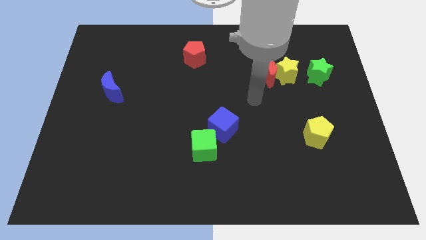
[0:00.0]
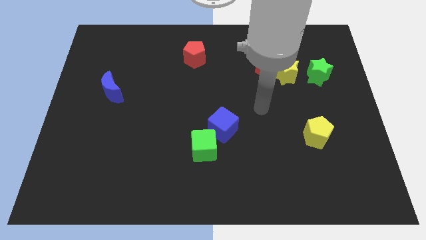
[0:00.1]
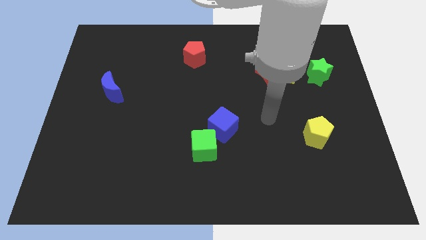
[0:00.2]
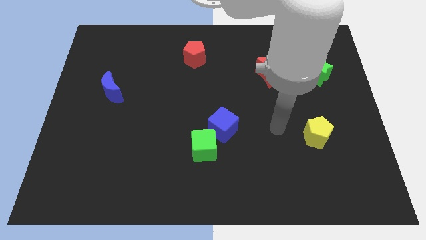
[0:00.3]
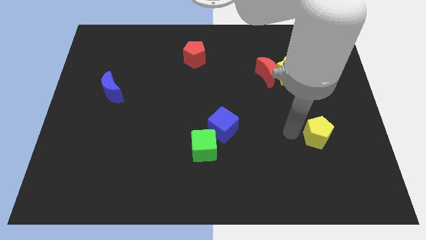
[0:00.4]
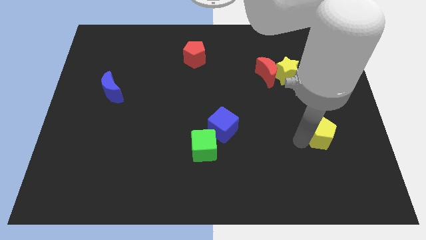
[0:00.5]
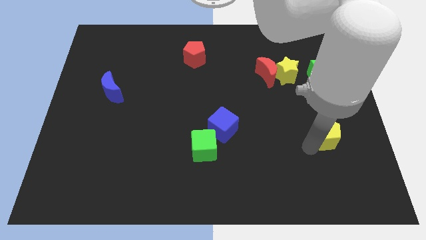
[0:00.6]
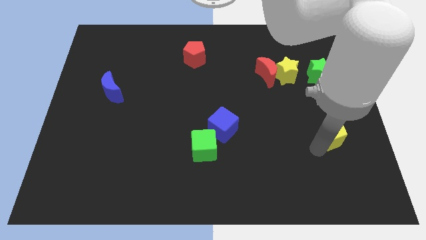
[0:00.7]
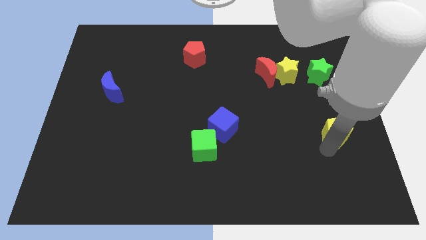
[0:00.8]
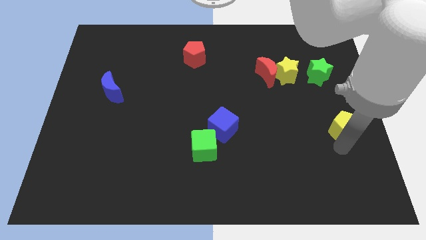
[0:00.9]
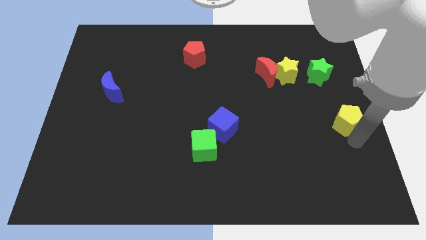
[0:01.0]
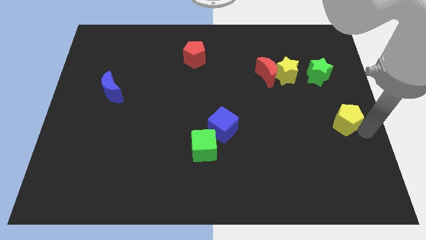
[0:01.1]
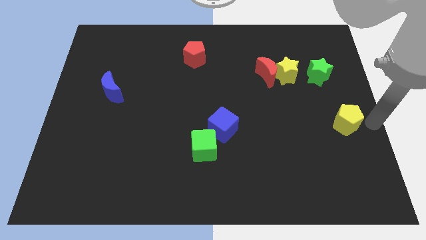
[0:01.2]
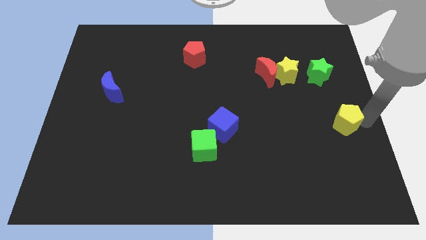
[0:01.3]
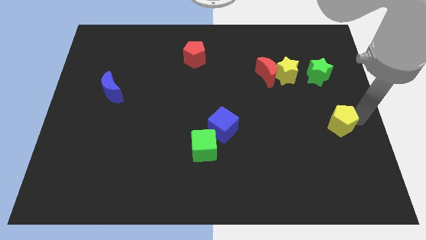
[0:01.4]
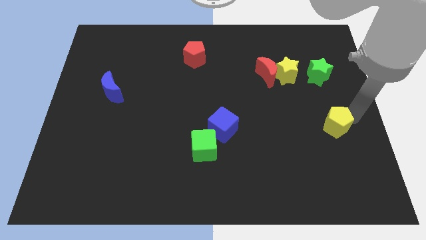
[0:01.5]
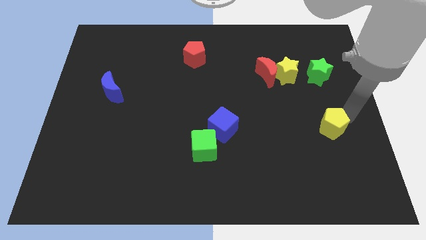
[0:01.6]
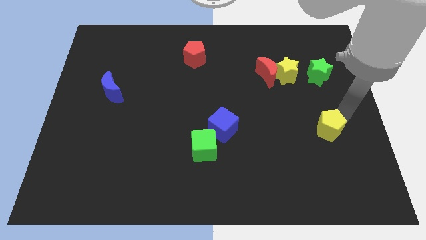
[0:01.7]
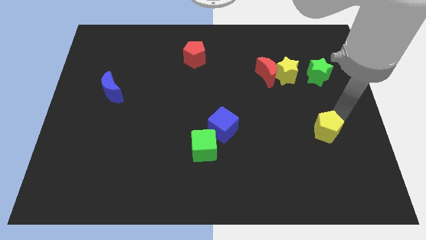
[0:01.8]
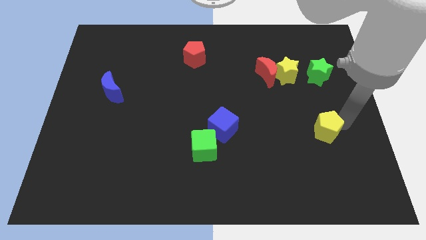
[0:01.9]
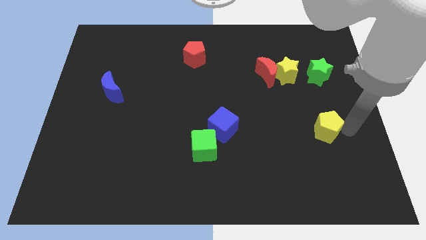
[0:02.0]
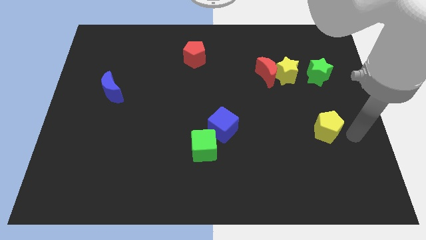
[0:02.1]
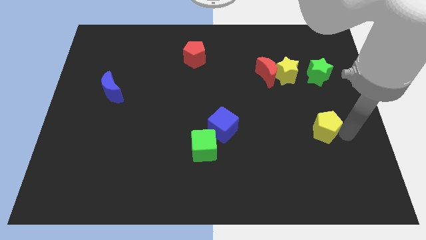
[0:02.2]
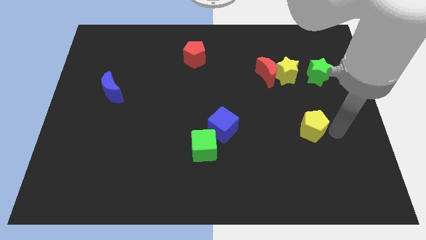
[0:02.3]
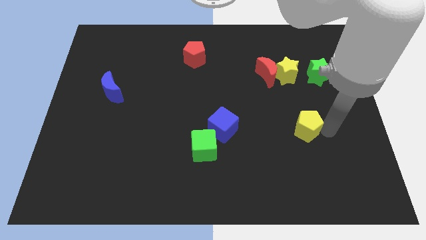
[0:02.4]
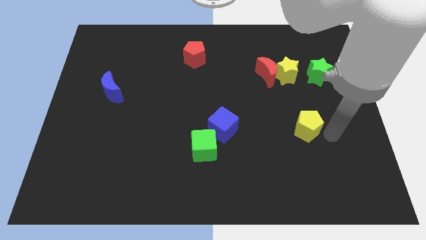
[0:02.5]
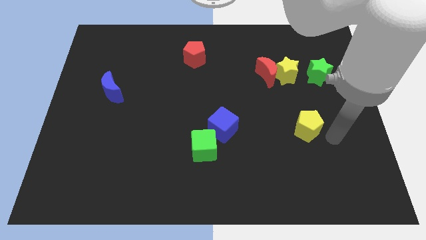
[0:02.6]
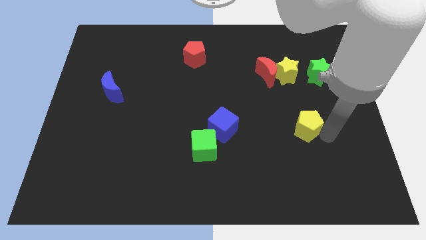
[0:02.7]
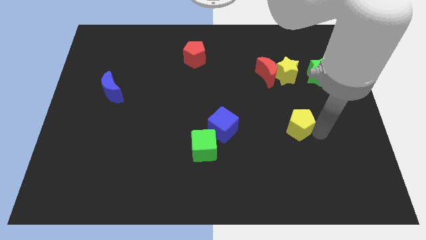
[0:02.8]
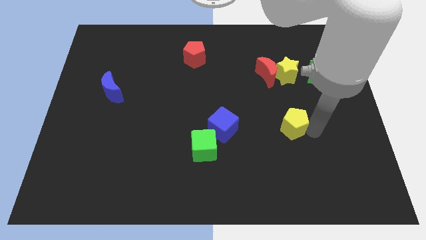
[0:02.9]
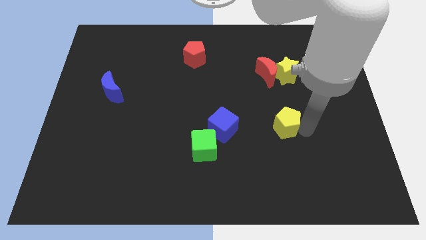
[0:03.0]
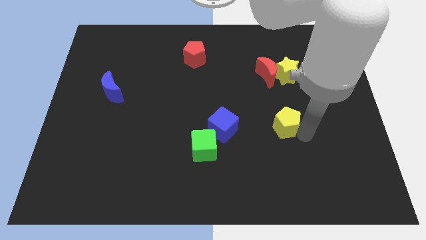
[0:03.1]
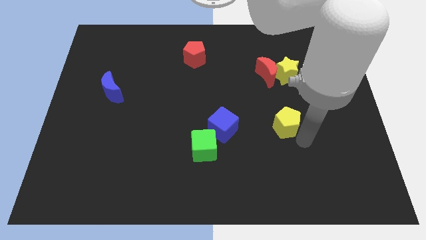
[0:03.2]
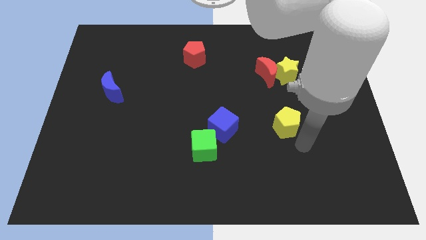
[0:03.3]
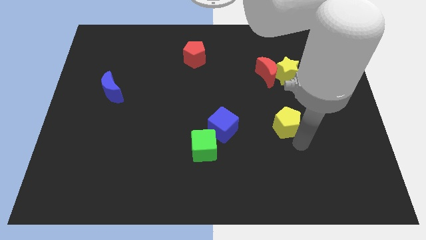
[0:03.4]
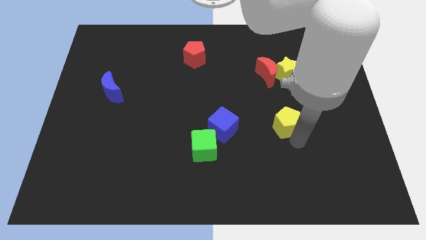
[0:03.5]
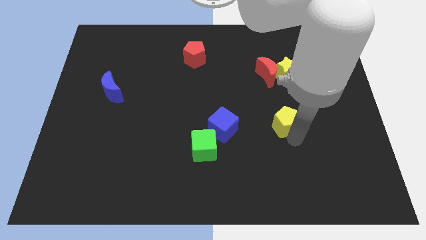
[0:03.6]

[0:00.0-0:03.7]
push the yellow pentagon diagonally upwards and to the left a little

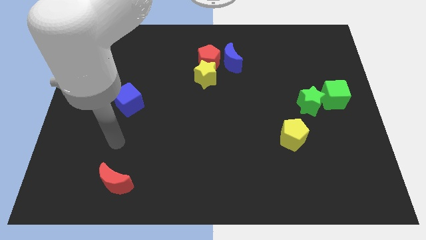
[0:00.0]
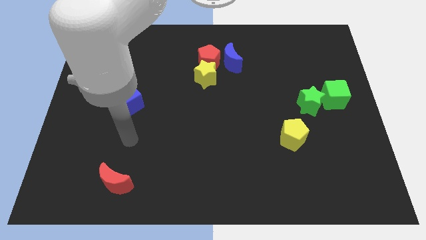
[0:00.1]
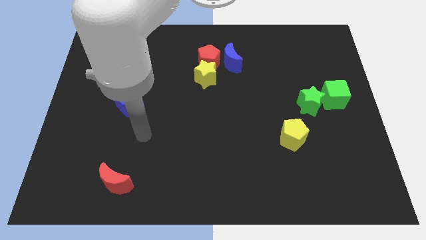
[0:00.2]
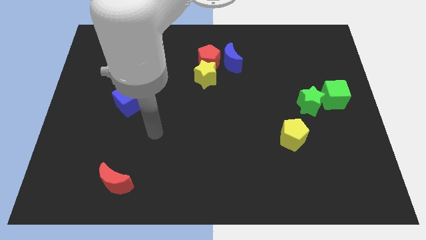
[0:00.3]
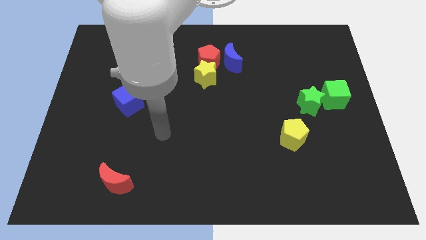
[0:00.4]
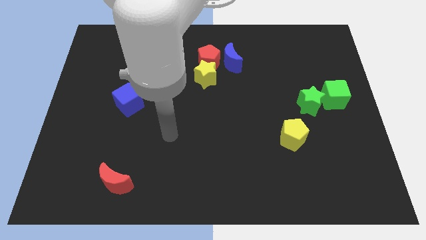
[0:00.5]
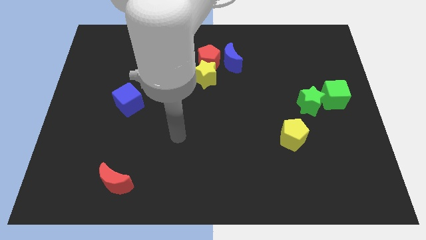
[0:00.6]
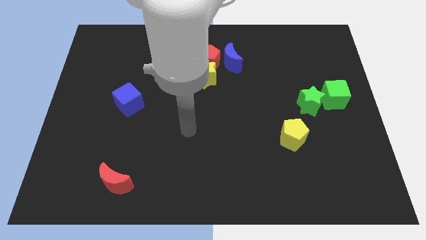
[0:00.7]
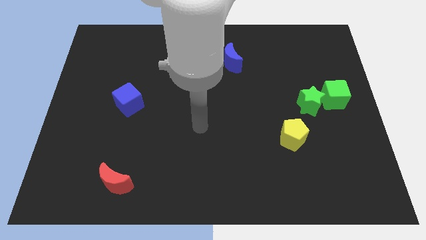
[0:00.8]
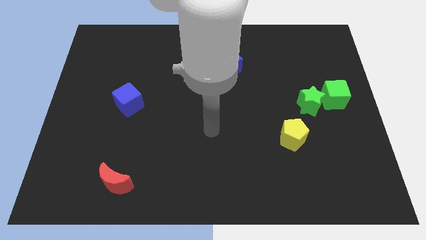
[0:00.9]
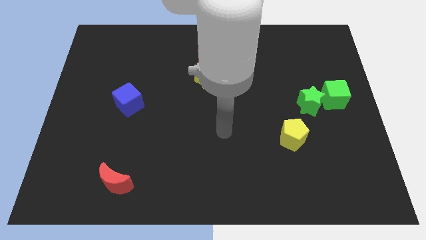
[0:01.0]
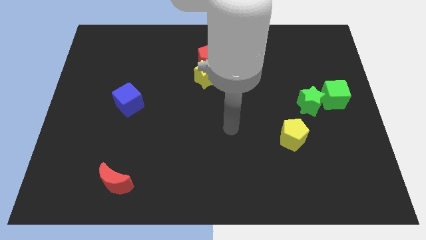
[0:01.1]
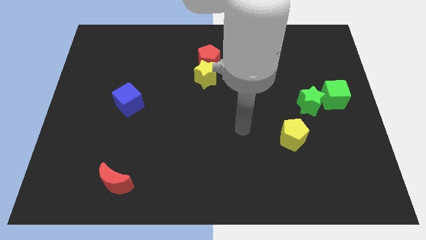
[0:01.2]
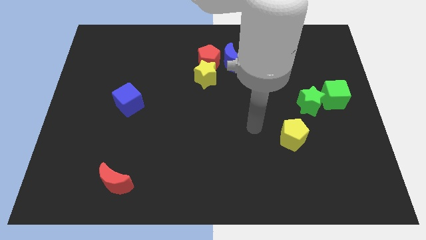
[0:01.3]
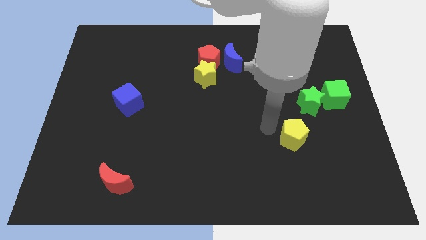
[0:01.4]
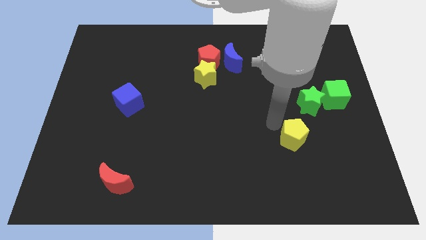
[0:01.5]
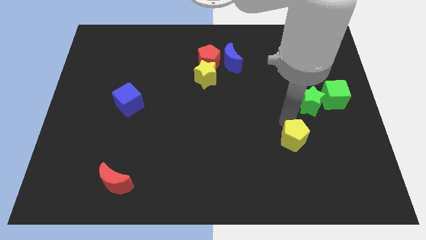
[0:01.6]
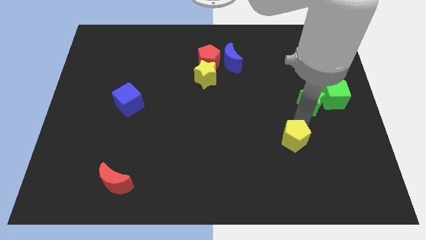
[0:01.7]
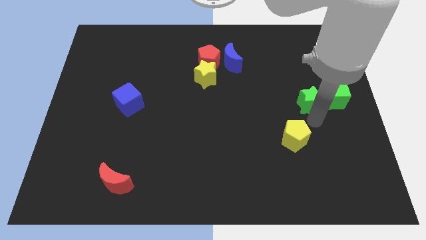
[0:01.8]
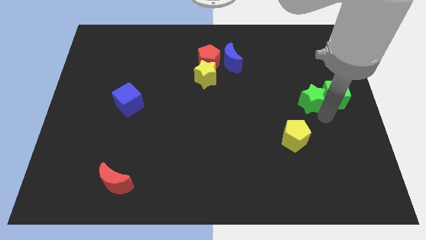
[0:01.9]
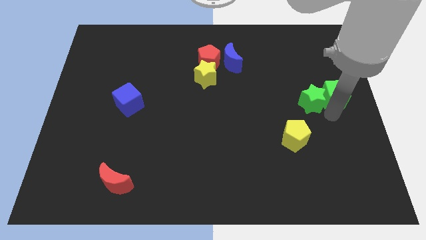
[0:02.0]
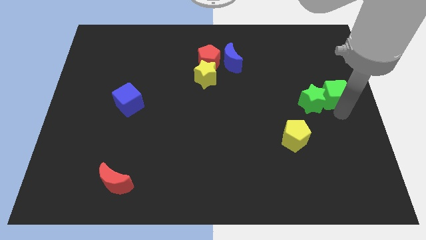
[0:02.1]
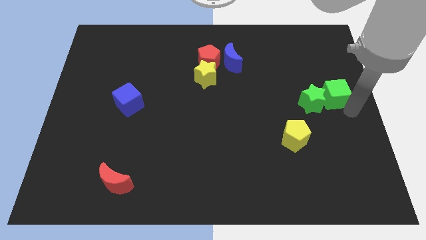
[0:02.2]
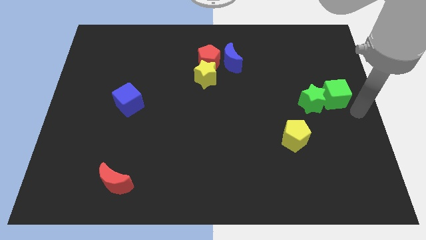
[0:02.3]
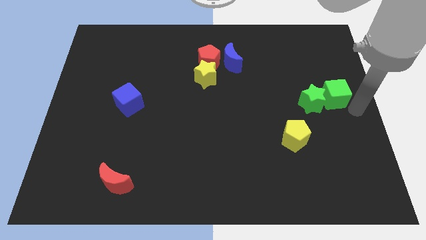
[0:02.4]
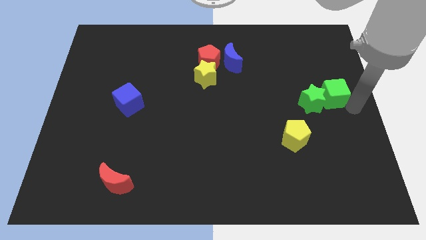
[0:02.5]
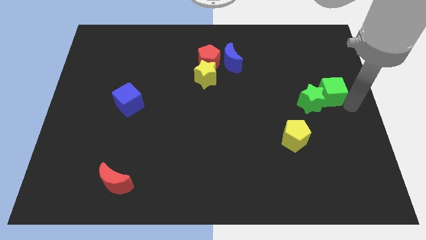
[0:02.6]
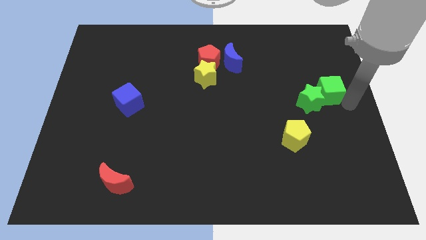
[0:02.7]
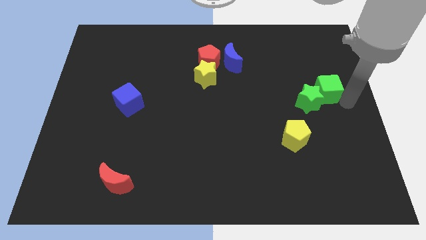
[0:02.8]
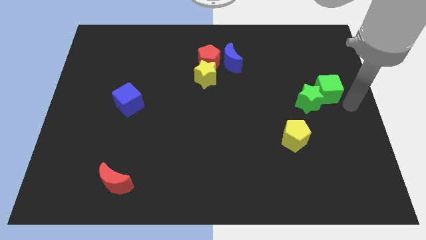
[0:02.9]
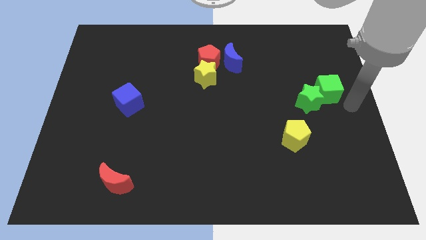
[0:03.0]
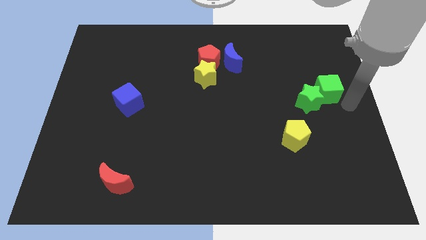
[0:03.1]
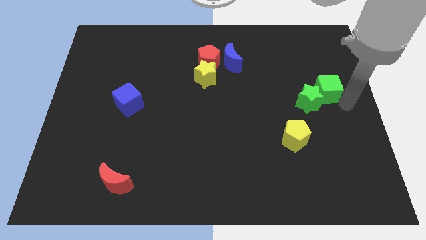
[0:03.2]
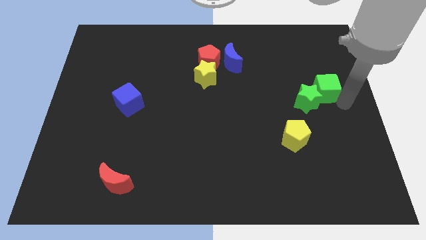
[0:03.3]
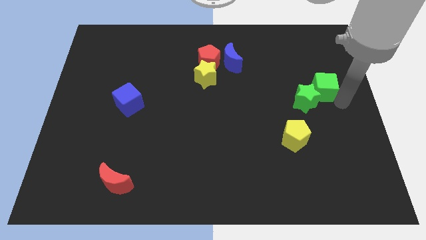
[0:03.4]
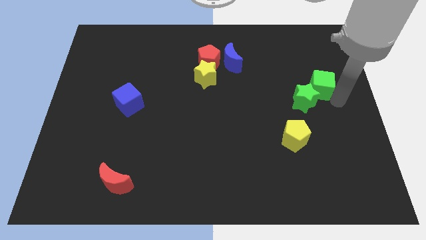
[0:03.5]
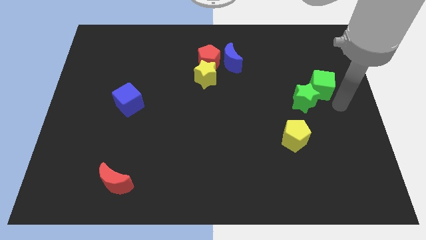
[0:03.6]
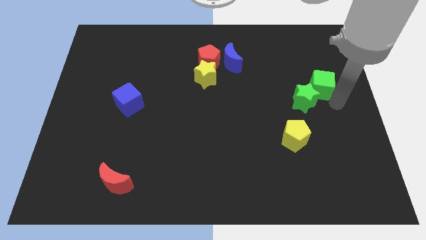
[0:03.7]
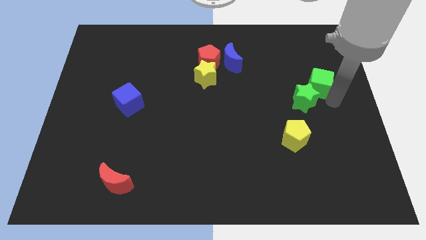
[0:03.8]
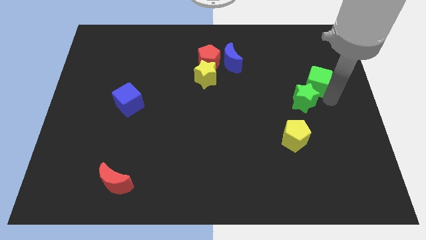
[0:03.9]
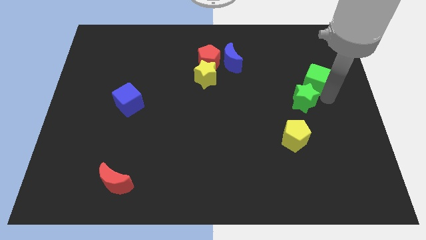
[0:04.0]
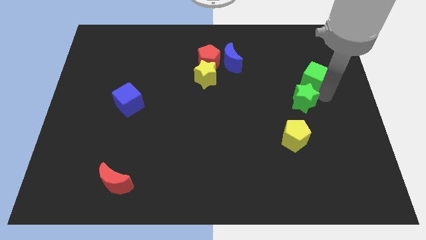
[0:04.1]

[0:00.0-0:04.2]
push the green cube a little bit up and to the left diagonally

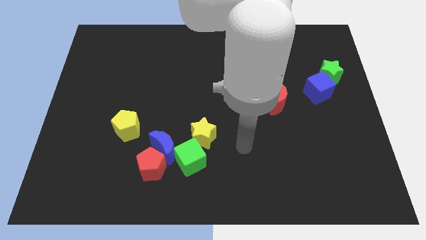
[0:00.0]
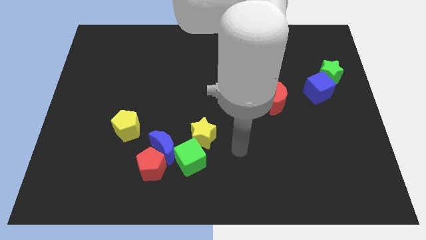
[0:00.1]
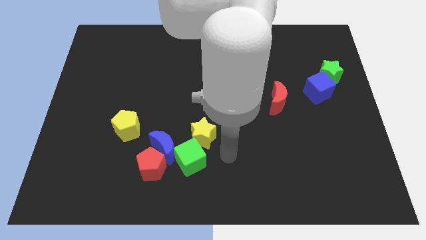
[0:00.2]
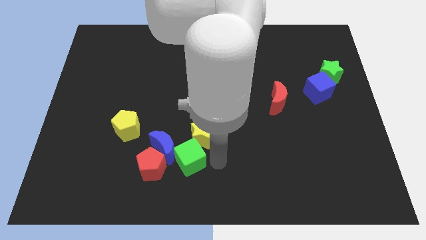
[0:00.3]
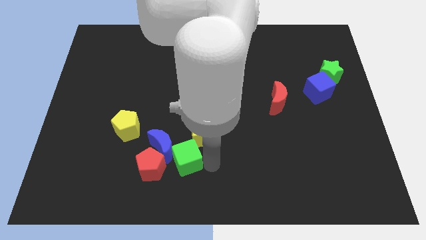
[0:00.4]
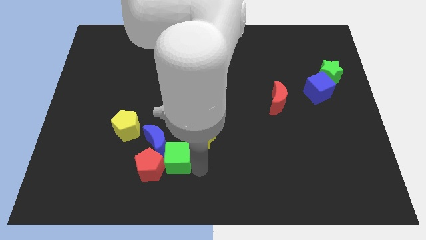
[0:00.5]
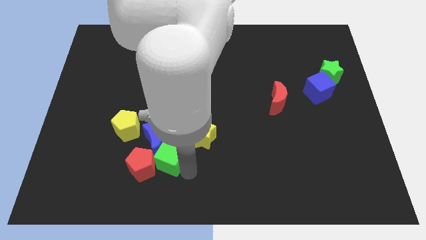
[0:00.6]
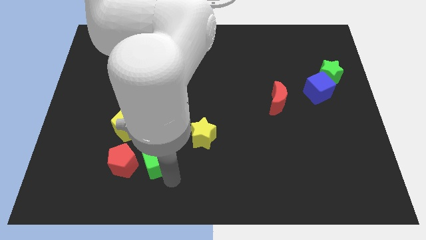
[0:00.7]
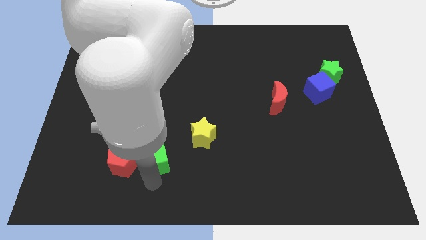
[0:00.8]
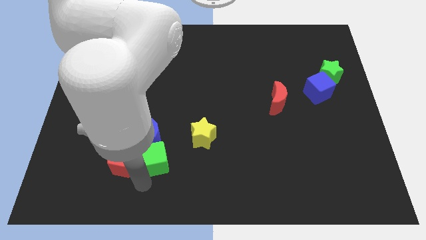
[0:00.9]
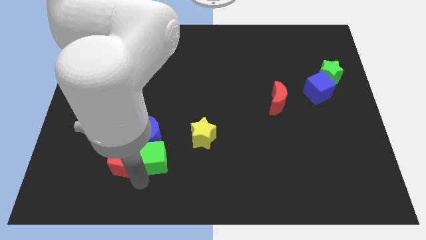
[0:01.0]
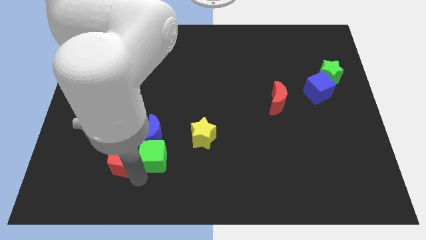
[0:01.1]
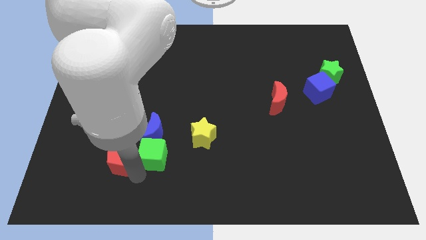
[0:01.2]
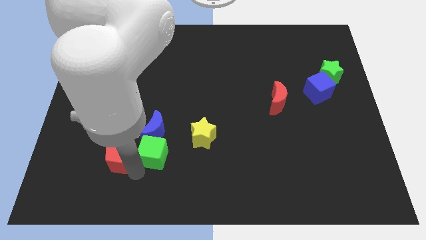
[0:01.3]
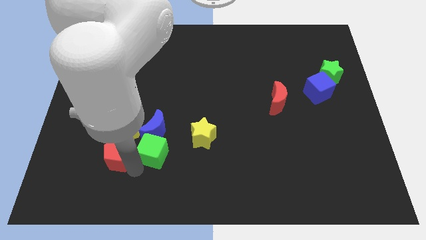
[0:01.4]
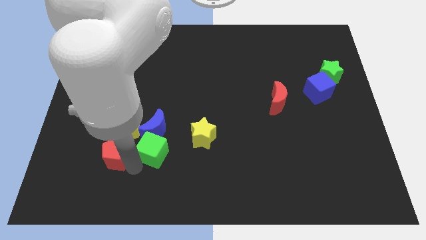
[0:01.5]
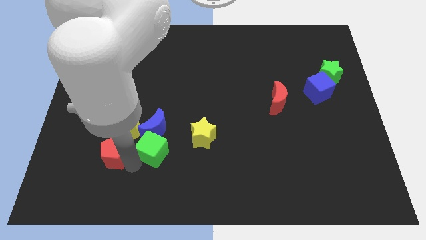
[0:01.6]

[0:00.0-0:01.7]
slightly push the red pentagon upwards and to the left
